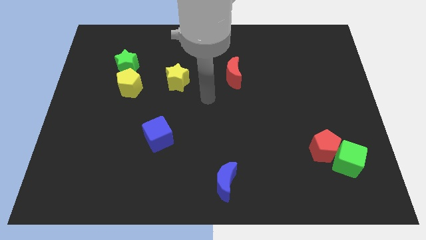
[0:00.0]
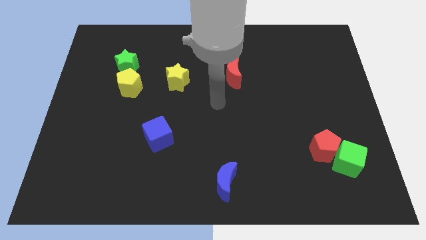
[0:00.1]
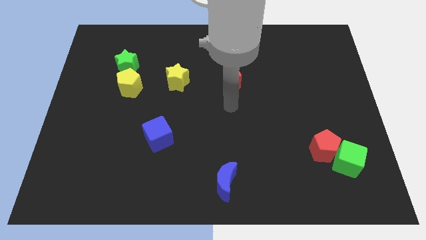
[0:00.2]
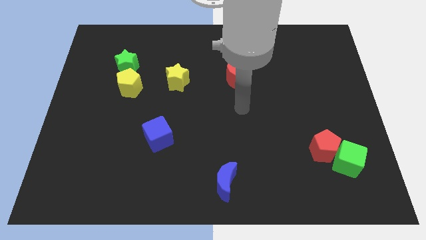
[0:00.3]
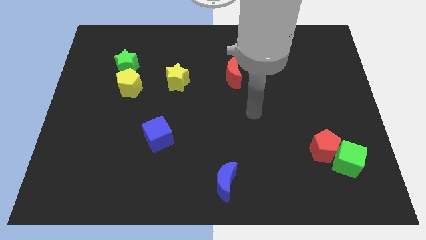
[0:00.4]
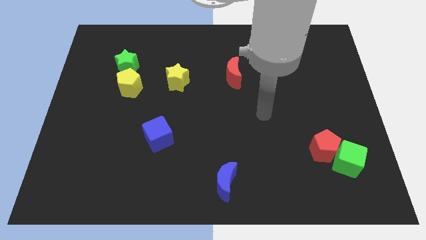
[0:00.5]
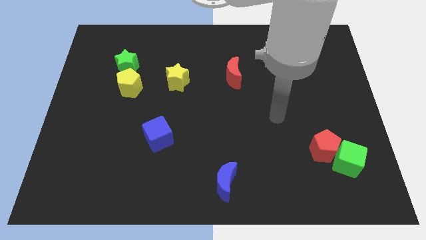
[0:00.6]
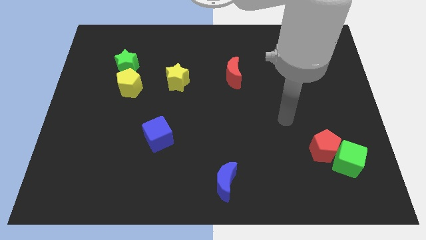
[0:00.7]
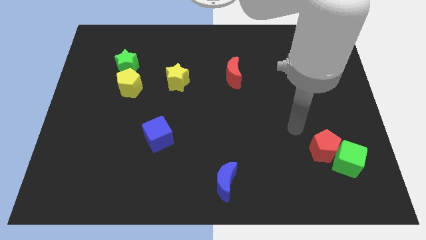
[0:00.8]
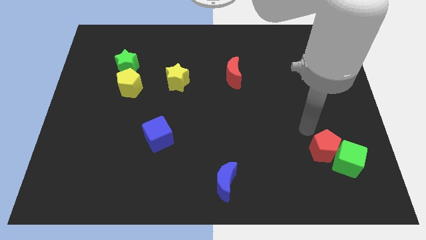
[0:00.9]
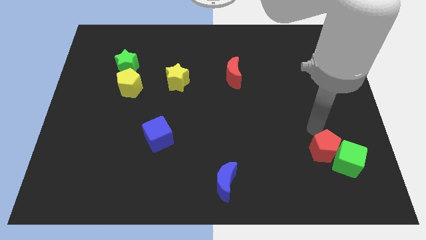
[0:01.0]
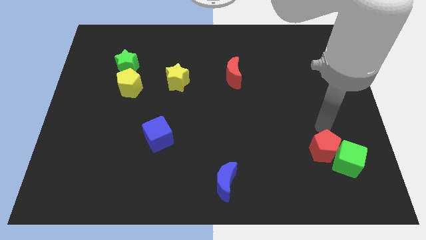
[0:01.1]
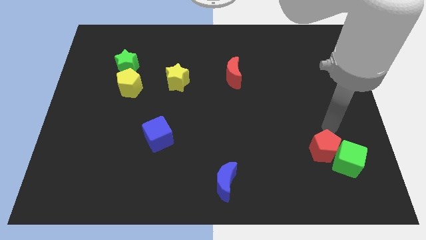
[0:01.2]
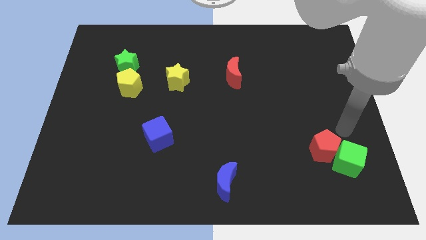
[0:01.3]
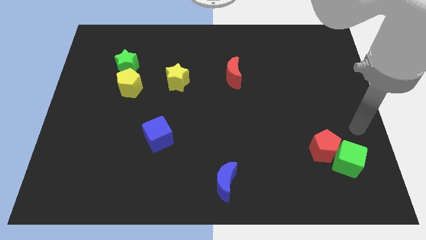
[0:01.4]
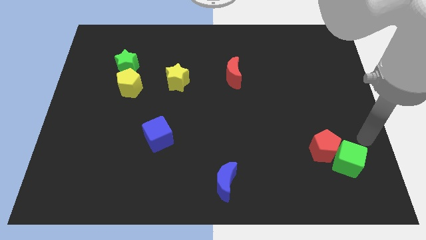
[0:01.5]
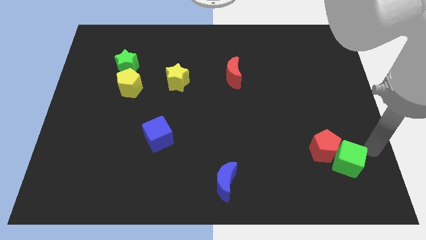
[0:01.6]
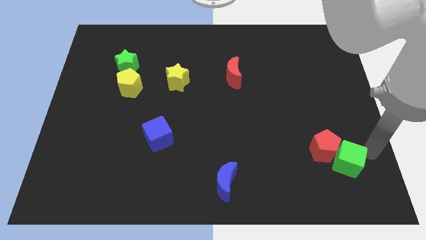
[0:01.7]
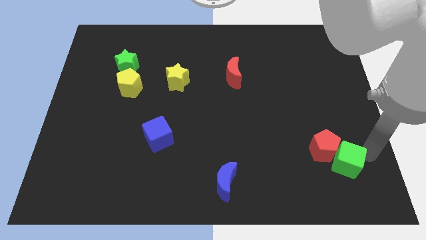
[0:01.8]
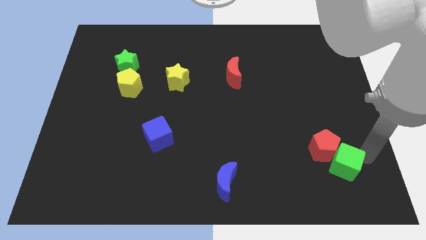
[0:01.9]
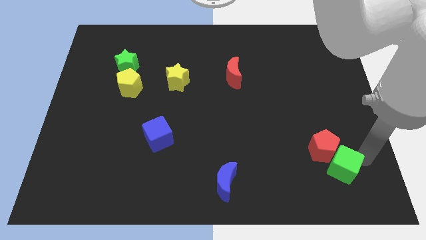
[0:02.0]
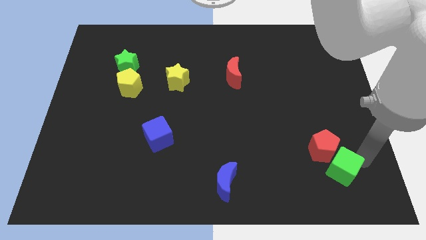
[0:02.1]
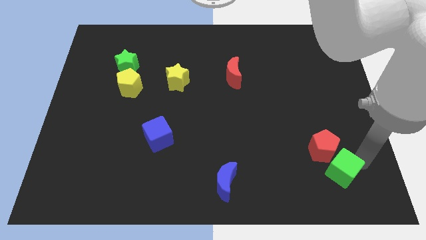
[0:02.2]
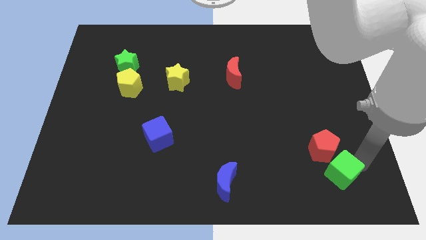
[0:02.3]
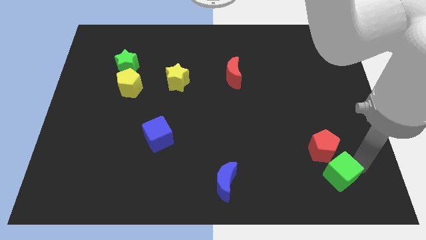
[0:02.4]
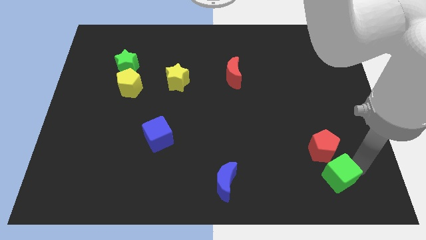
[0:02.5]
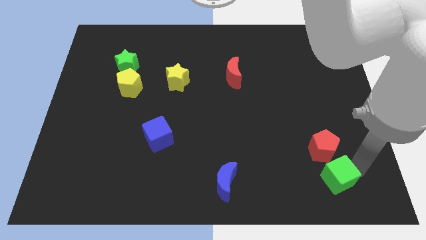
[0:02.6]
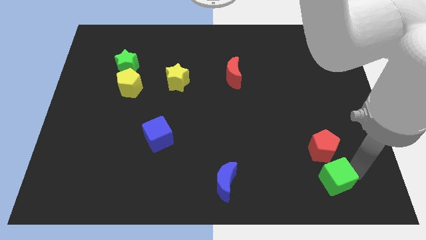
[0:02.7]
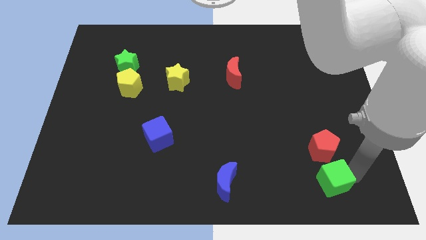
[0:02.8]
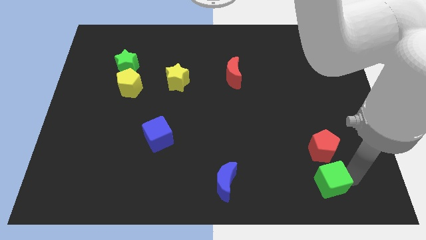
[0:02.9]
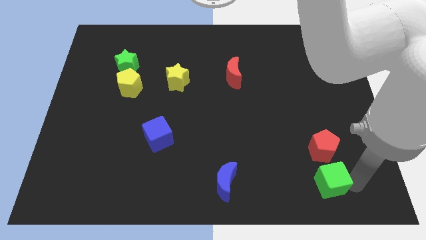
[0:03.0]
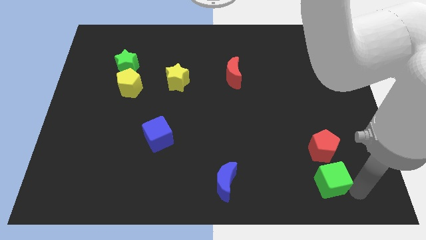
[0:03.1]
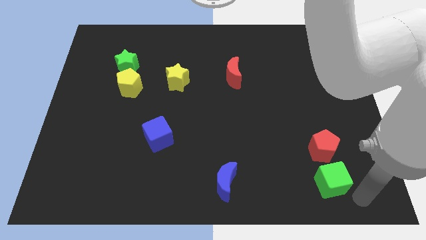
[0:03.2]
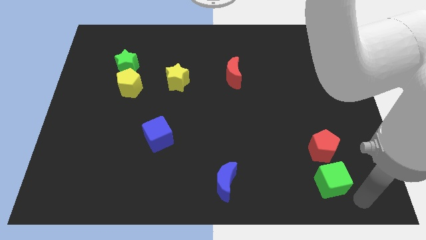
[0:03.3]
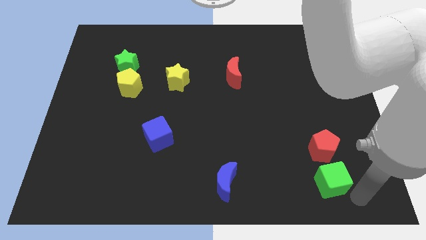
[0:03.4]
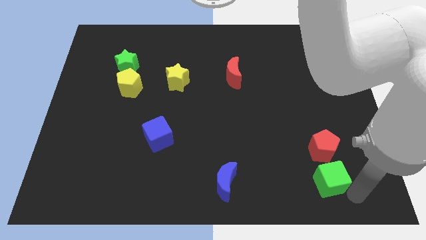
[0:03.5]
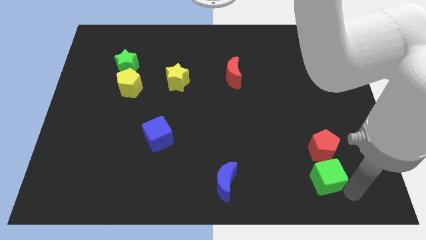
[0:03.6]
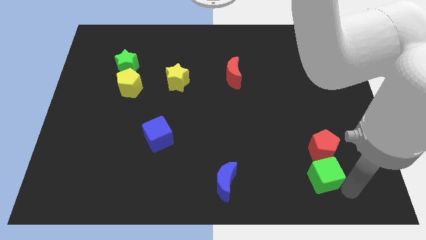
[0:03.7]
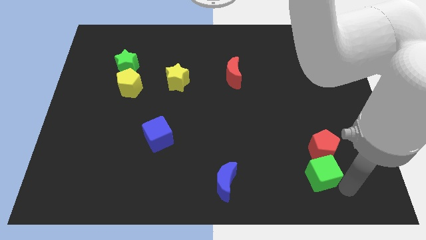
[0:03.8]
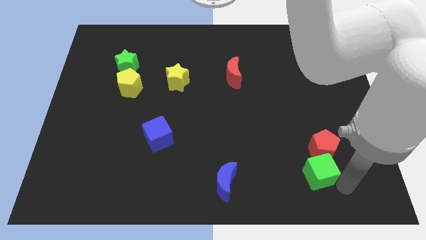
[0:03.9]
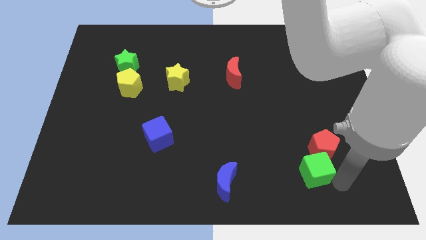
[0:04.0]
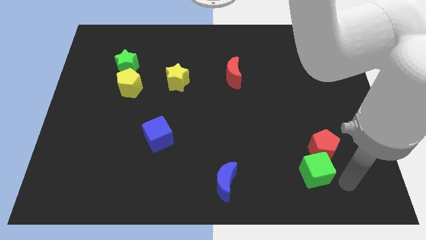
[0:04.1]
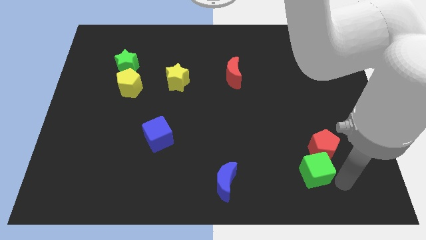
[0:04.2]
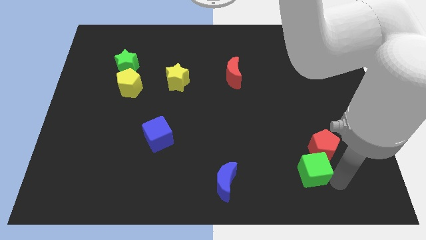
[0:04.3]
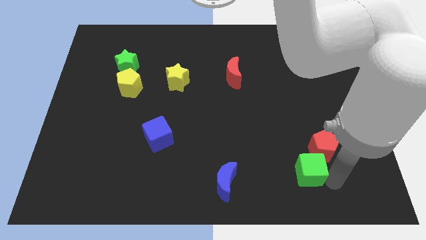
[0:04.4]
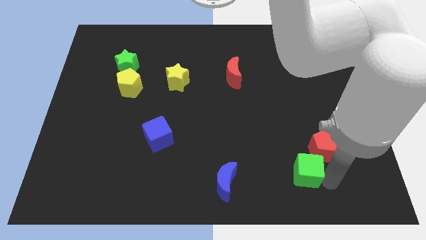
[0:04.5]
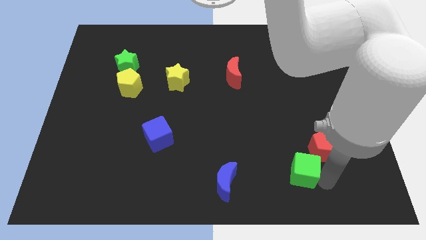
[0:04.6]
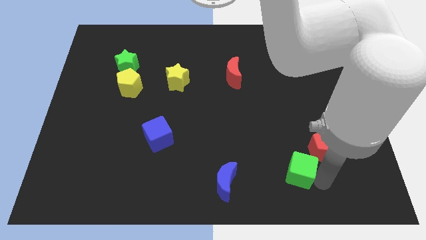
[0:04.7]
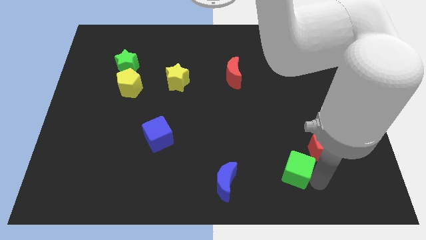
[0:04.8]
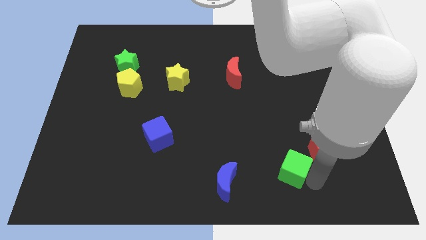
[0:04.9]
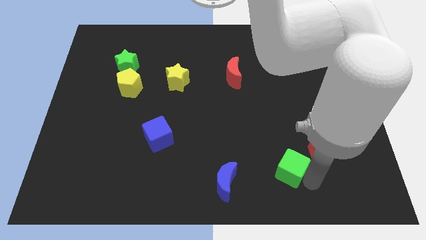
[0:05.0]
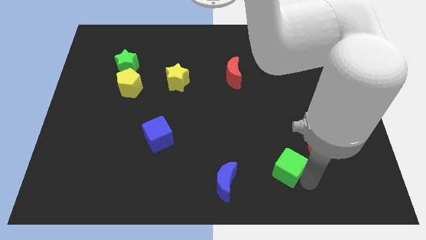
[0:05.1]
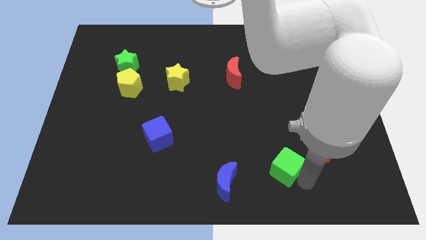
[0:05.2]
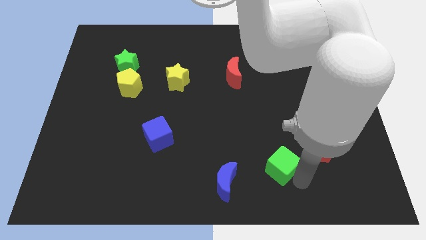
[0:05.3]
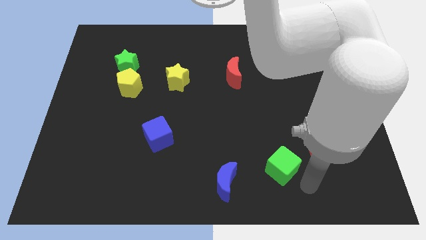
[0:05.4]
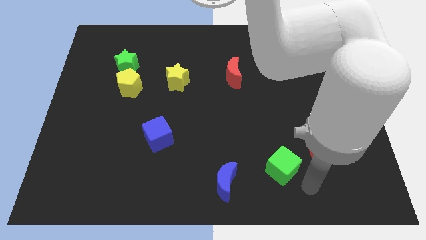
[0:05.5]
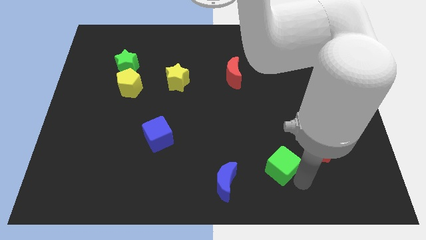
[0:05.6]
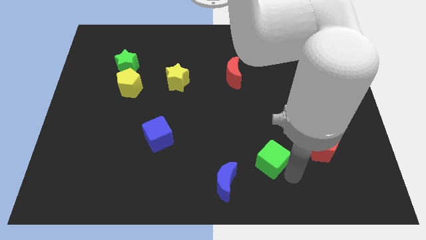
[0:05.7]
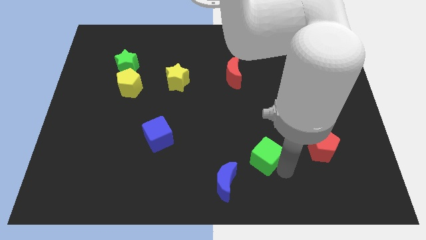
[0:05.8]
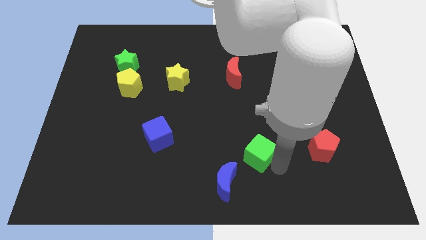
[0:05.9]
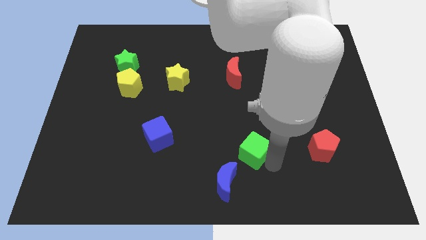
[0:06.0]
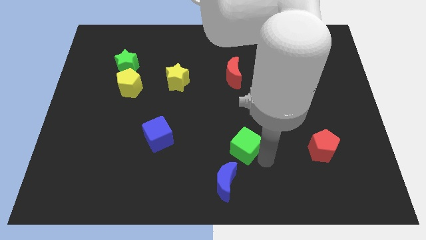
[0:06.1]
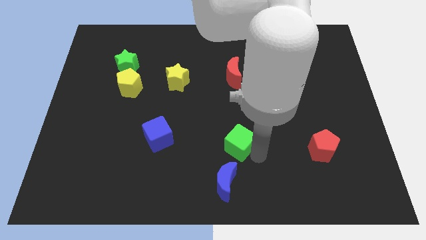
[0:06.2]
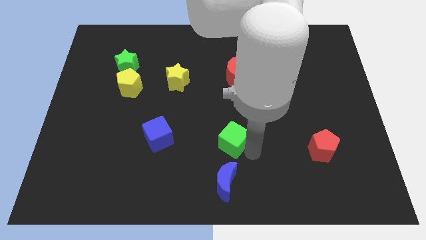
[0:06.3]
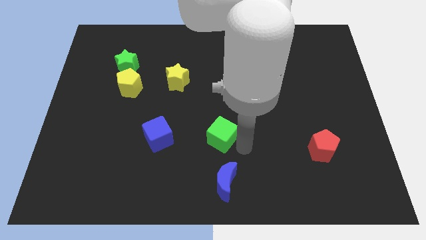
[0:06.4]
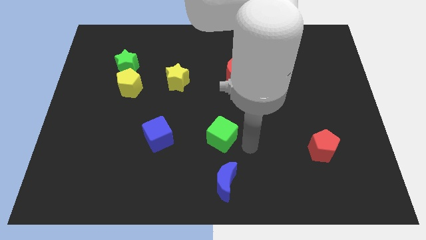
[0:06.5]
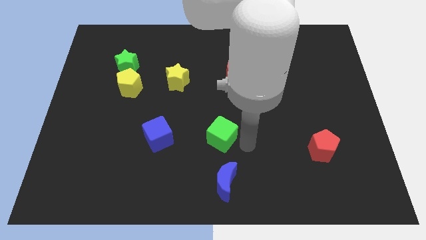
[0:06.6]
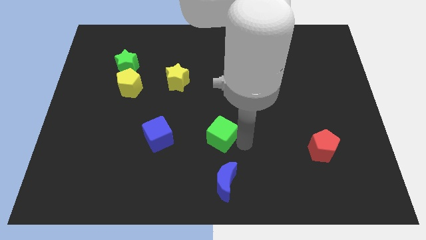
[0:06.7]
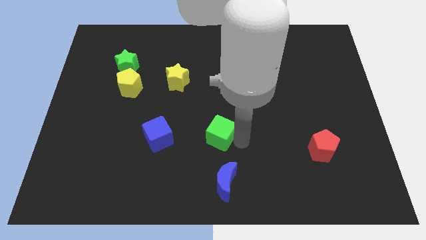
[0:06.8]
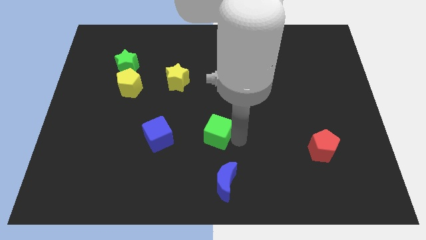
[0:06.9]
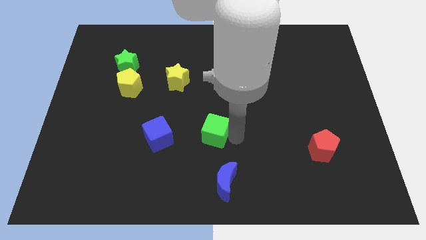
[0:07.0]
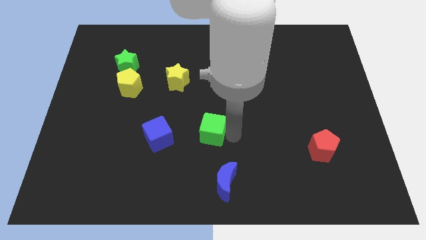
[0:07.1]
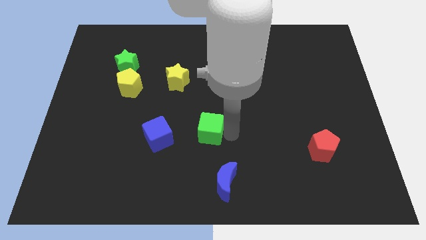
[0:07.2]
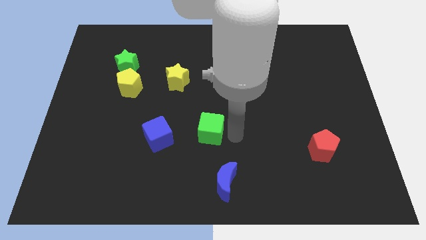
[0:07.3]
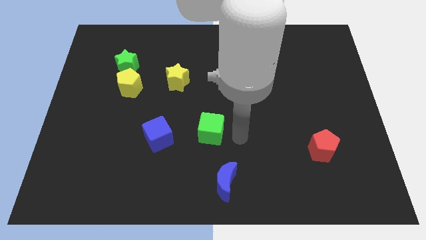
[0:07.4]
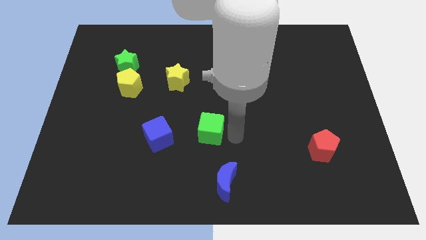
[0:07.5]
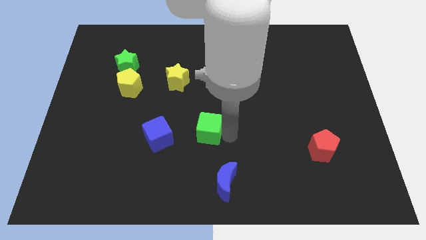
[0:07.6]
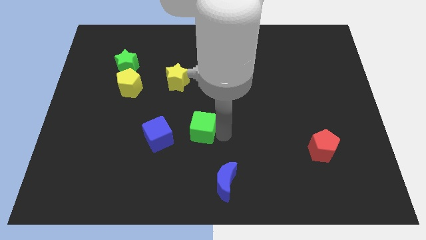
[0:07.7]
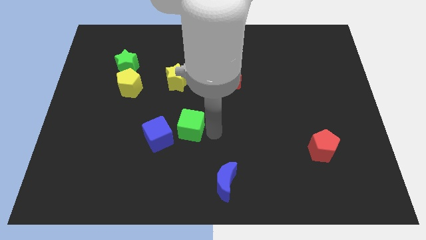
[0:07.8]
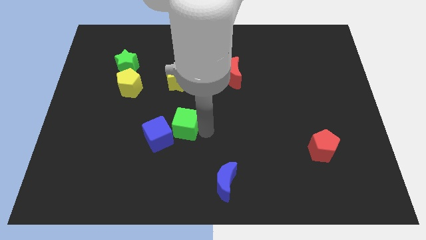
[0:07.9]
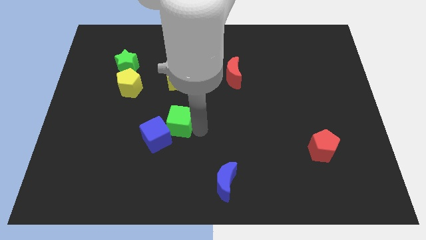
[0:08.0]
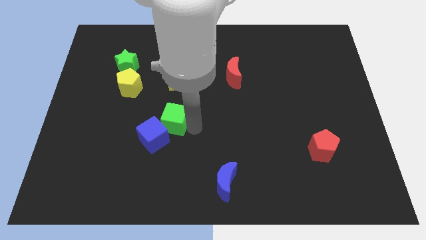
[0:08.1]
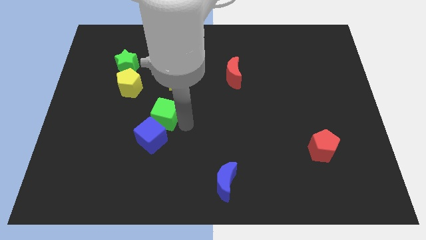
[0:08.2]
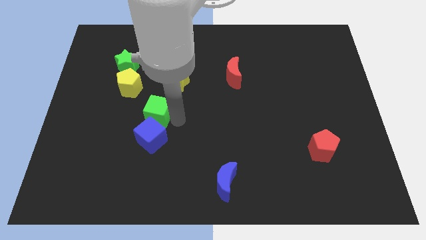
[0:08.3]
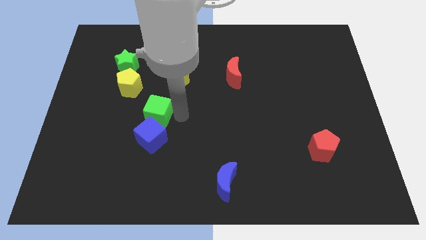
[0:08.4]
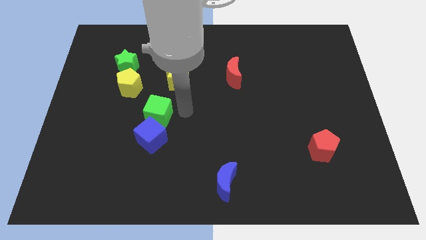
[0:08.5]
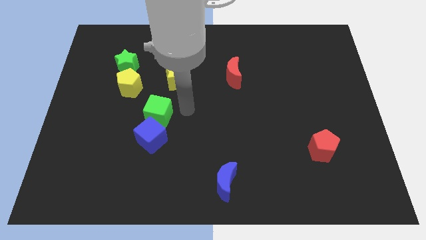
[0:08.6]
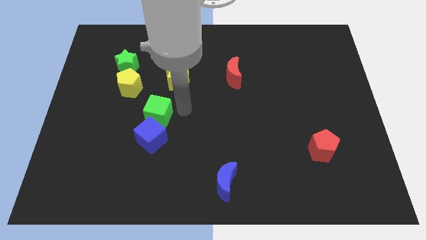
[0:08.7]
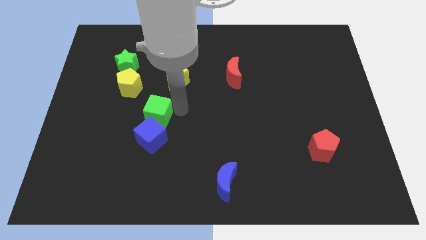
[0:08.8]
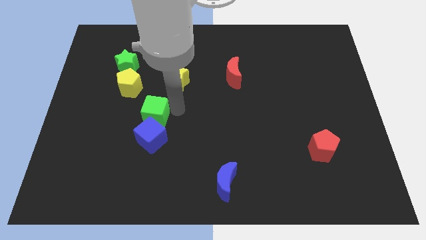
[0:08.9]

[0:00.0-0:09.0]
put the green cube diagonally up and to the left of the blue cube
